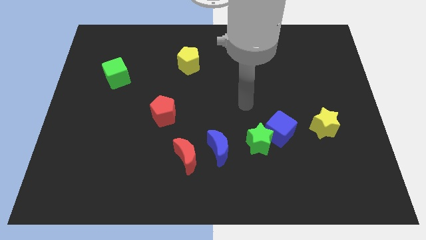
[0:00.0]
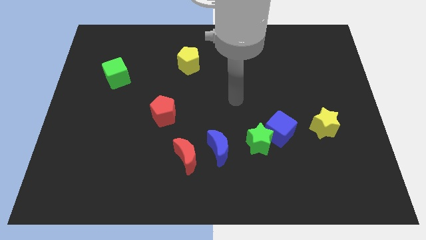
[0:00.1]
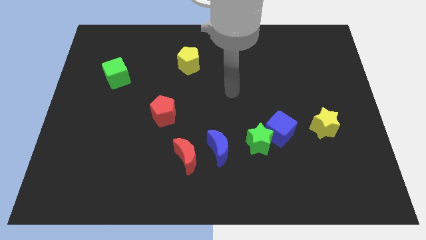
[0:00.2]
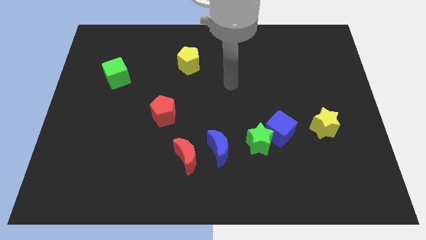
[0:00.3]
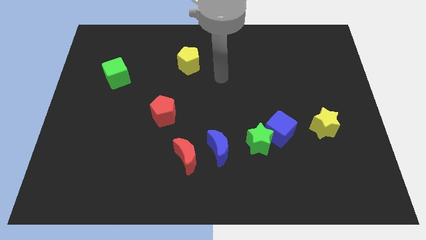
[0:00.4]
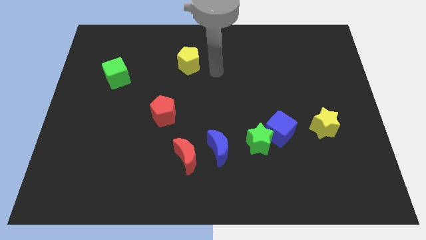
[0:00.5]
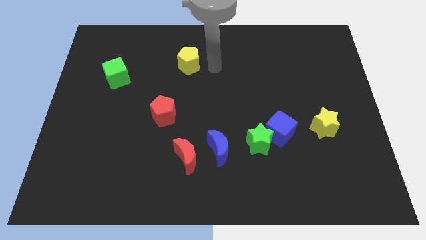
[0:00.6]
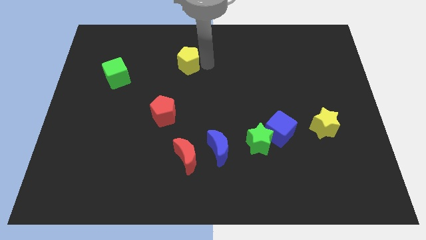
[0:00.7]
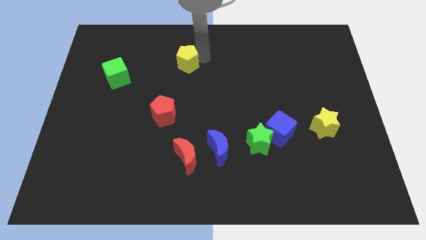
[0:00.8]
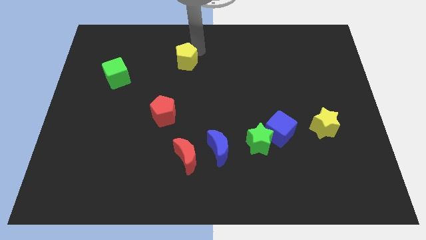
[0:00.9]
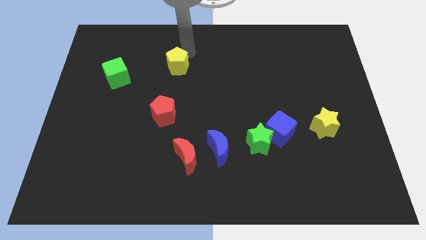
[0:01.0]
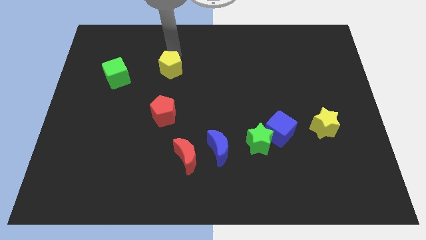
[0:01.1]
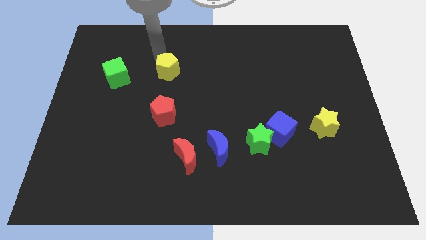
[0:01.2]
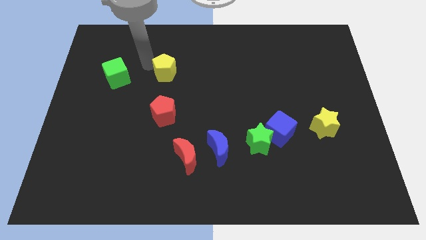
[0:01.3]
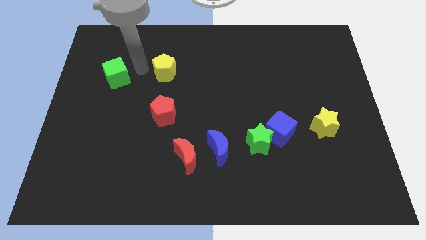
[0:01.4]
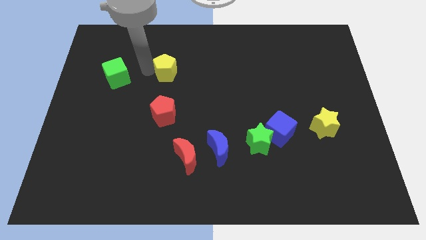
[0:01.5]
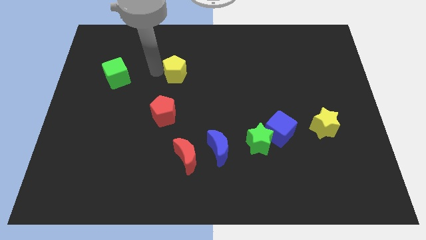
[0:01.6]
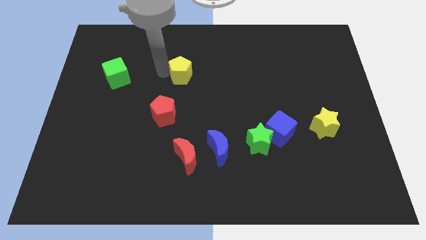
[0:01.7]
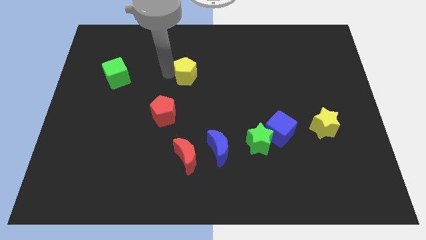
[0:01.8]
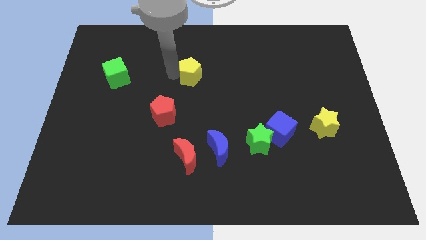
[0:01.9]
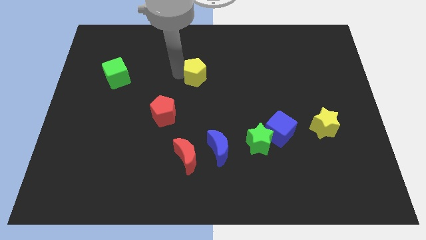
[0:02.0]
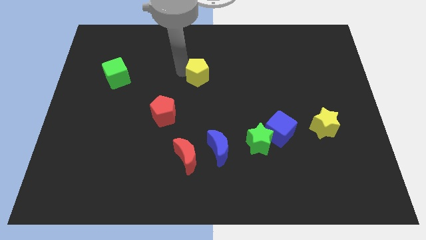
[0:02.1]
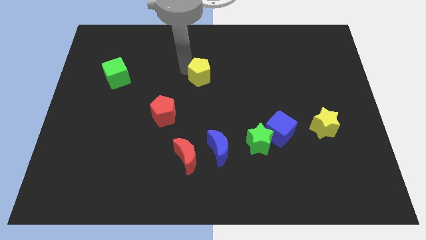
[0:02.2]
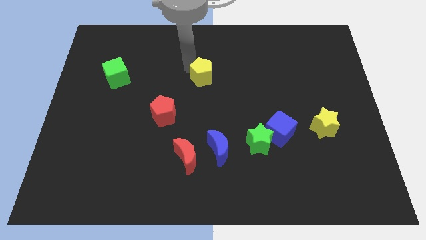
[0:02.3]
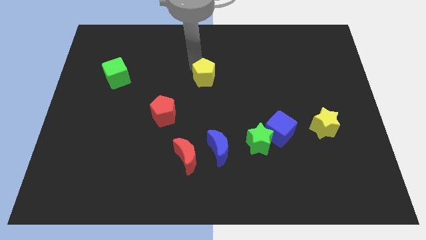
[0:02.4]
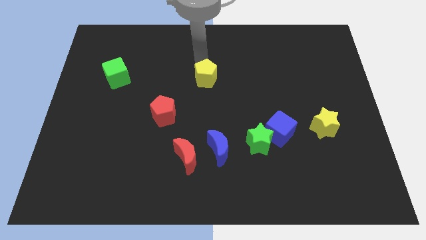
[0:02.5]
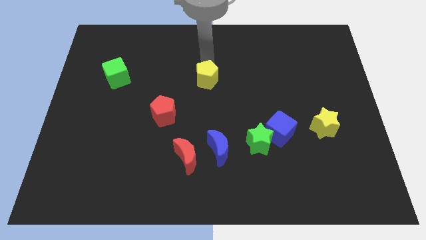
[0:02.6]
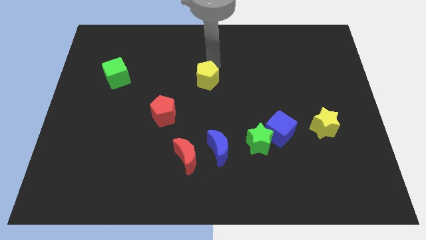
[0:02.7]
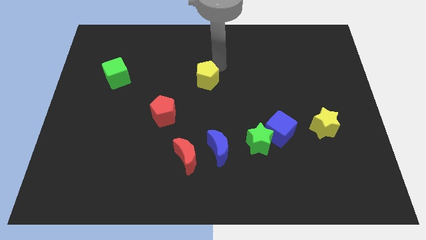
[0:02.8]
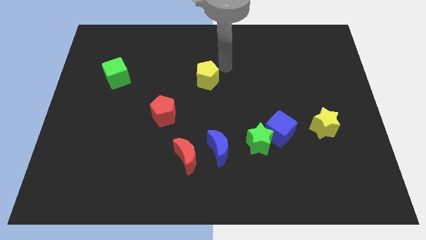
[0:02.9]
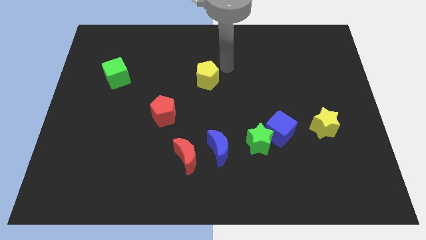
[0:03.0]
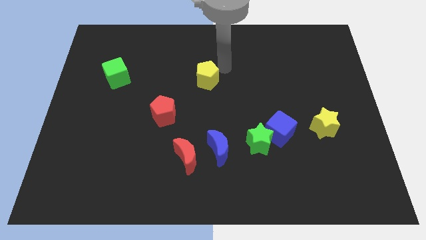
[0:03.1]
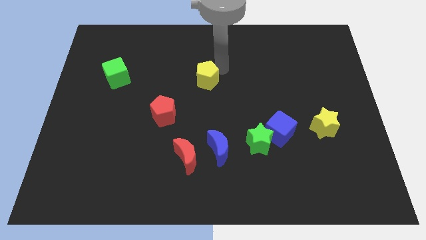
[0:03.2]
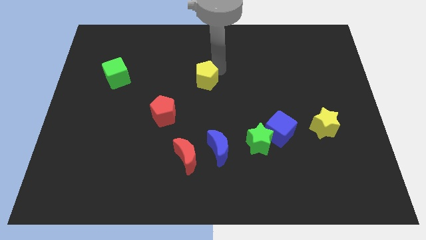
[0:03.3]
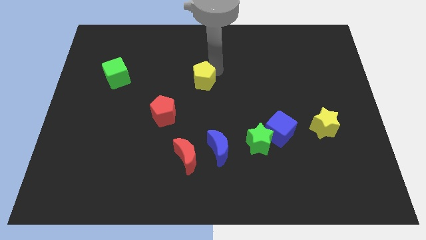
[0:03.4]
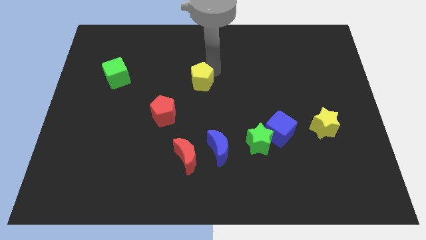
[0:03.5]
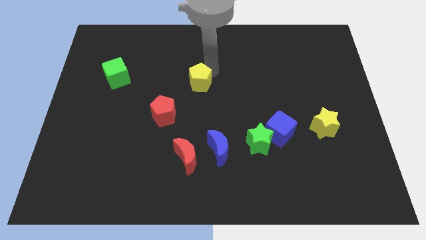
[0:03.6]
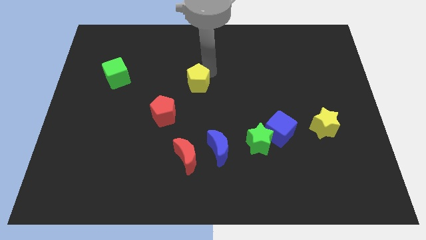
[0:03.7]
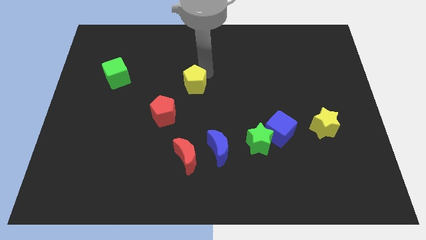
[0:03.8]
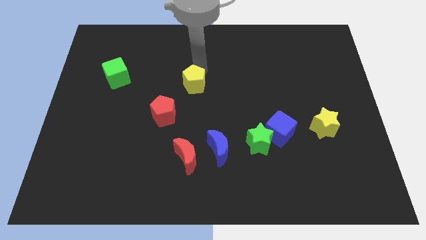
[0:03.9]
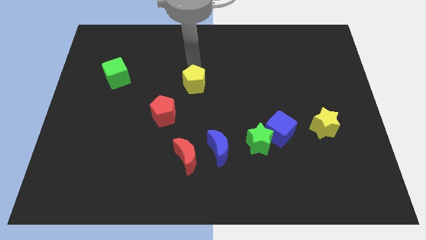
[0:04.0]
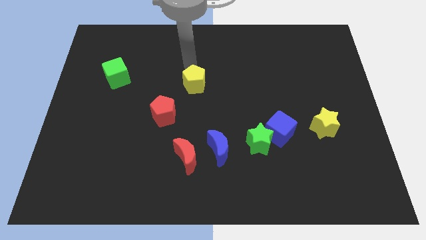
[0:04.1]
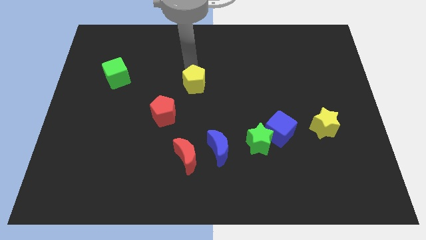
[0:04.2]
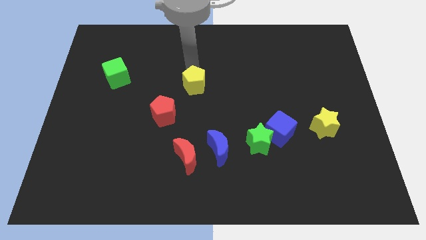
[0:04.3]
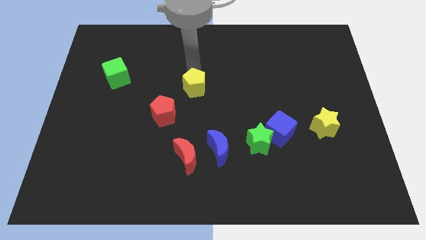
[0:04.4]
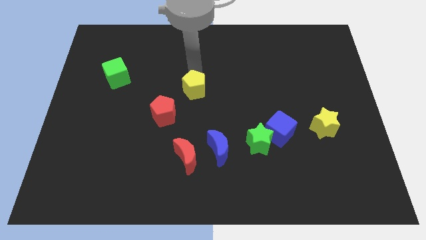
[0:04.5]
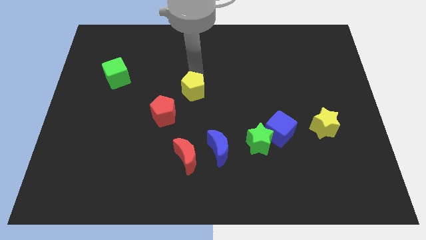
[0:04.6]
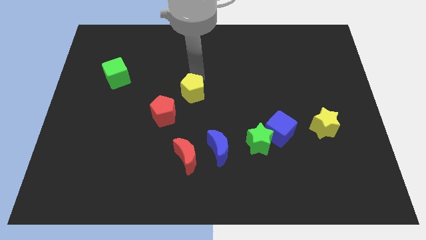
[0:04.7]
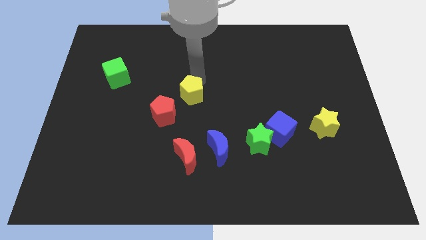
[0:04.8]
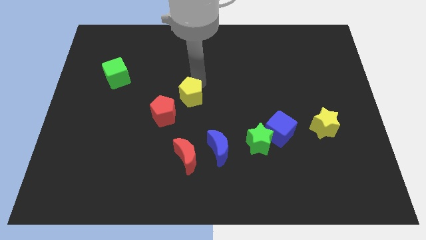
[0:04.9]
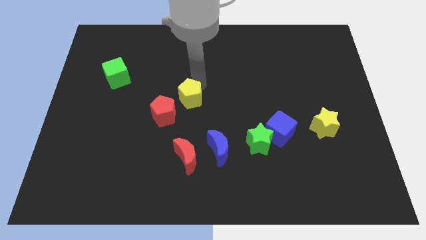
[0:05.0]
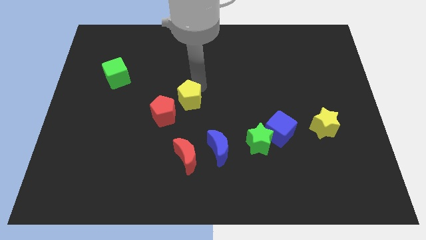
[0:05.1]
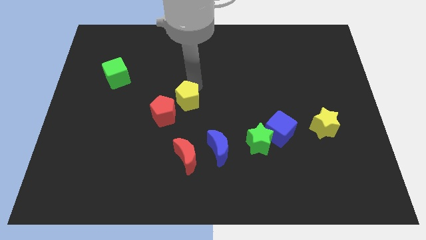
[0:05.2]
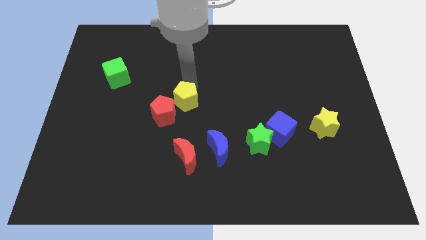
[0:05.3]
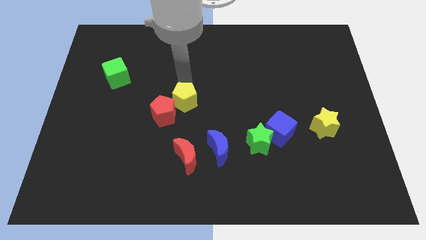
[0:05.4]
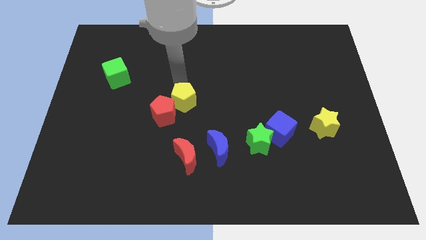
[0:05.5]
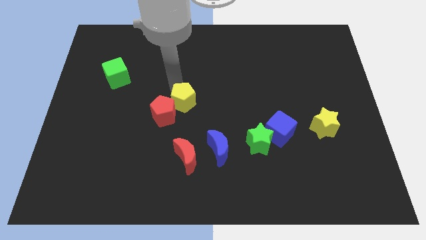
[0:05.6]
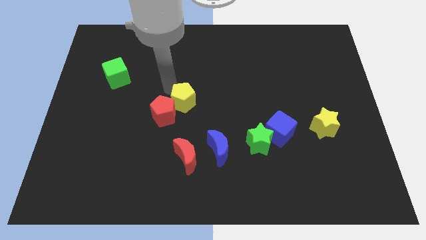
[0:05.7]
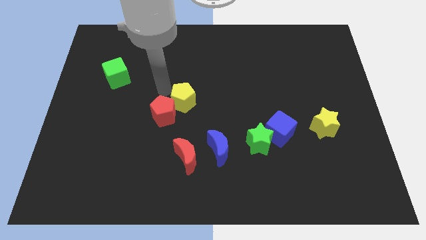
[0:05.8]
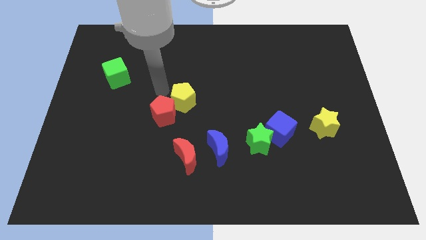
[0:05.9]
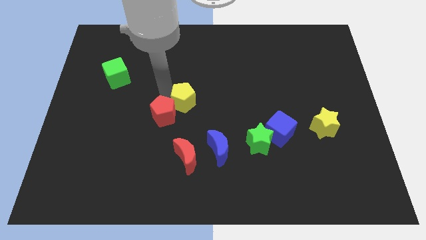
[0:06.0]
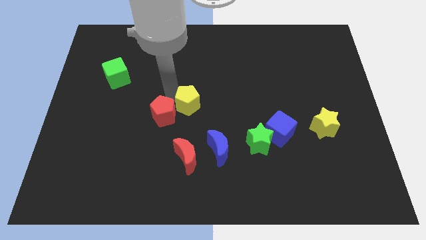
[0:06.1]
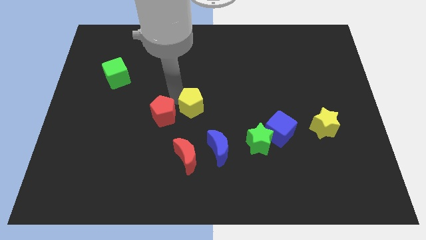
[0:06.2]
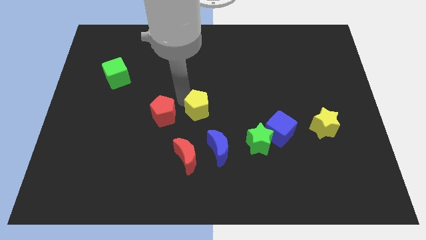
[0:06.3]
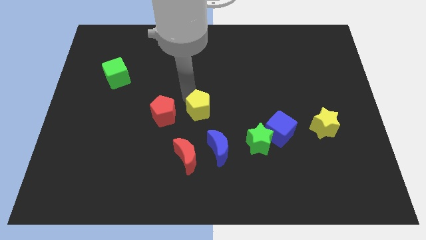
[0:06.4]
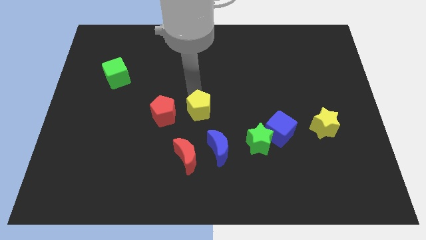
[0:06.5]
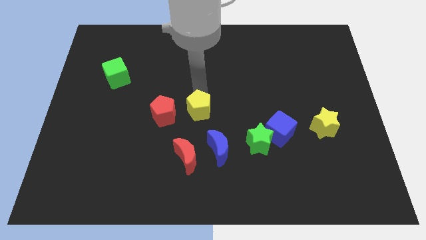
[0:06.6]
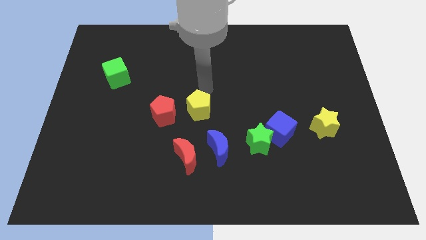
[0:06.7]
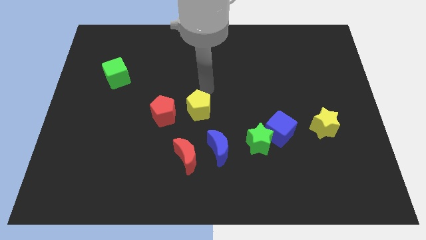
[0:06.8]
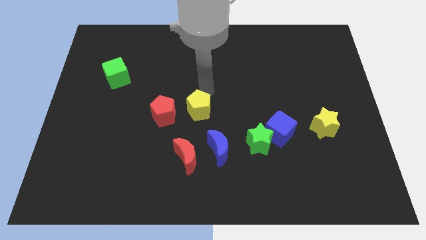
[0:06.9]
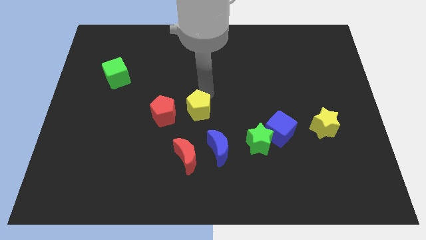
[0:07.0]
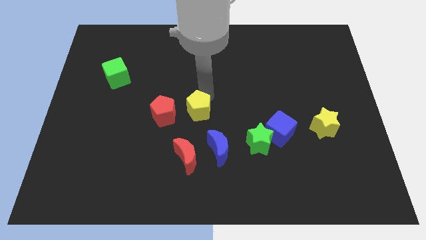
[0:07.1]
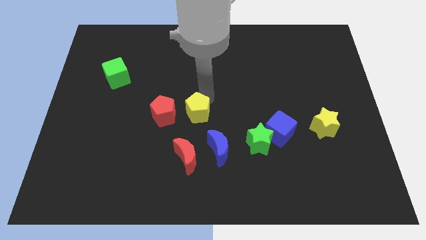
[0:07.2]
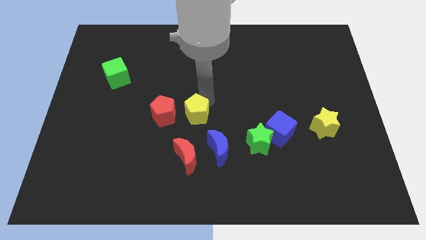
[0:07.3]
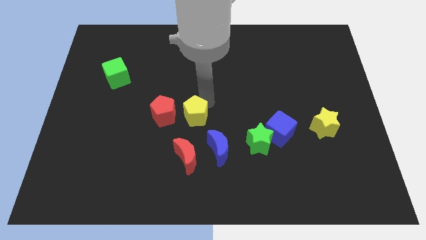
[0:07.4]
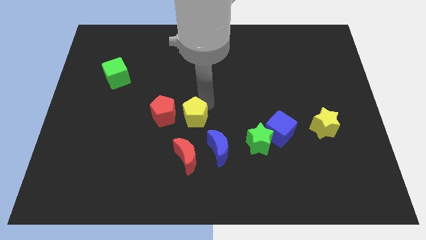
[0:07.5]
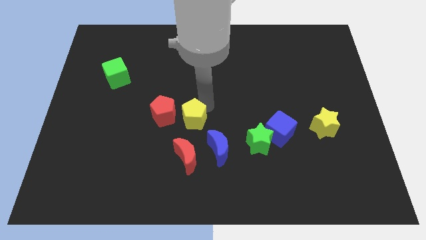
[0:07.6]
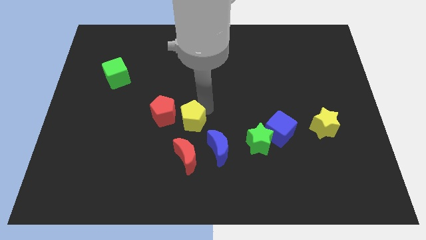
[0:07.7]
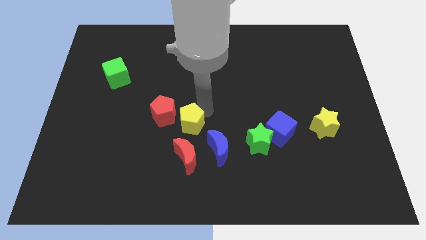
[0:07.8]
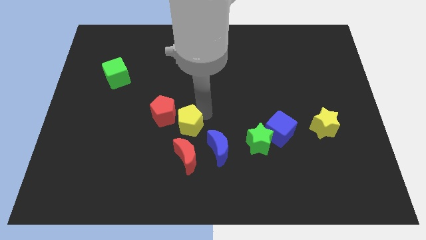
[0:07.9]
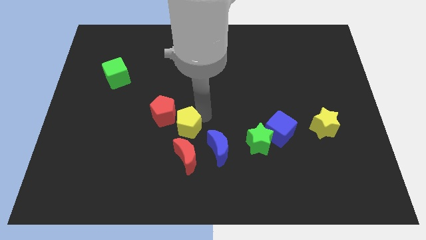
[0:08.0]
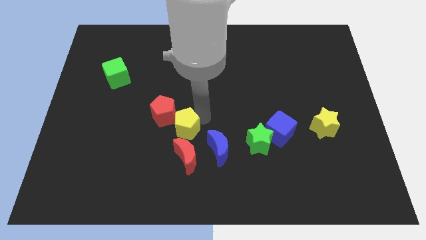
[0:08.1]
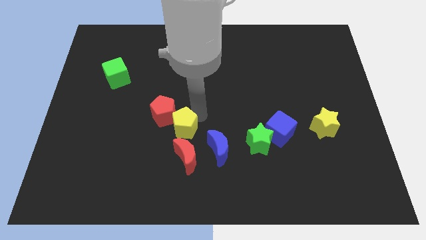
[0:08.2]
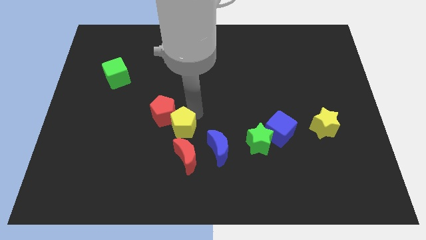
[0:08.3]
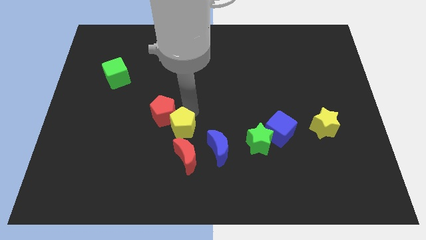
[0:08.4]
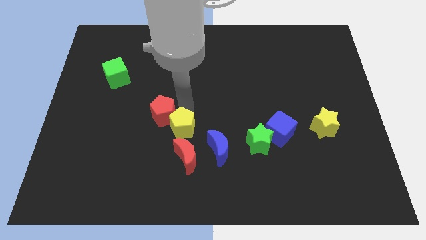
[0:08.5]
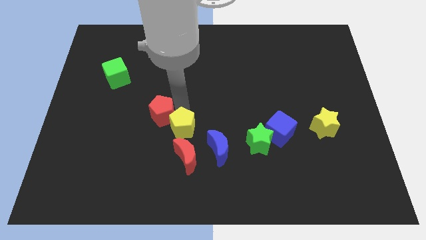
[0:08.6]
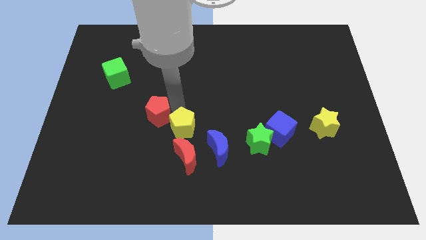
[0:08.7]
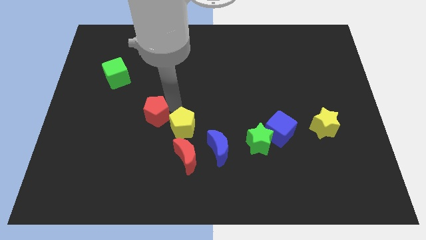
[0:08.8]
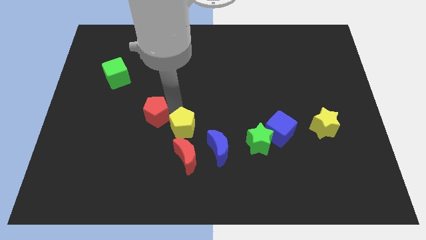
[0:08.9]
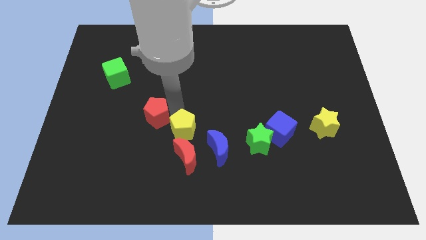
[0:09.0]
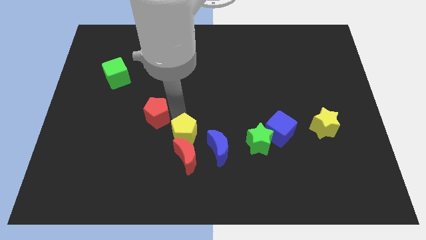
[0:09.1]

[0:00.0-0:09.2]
move the yellow pentagon to the red moon
